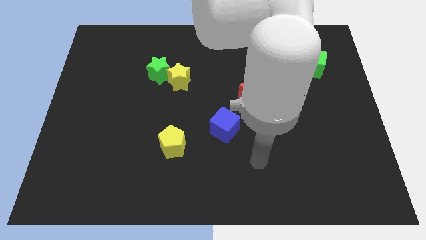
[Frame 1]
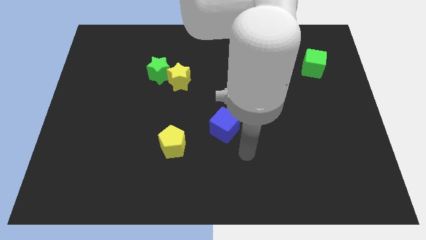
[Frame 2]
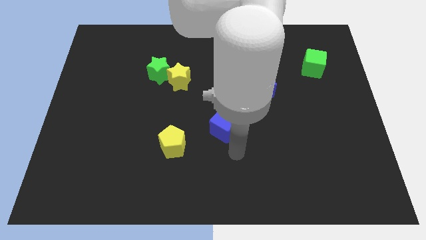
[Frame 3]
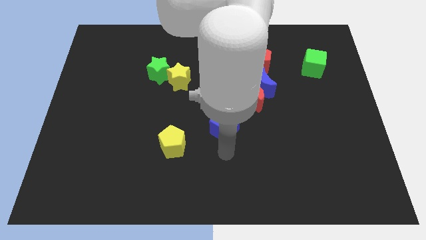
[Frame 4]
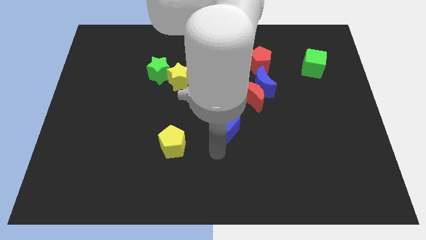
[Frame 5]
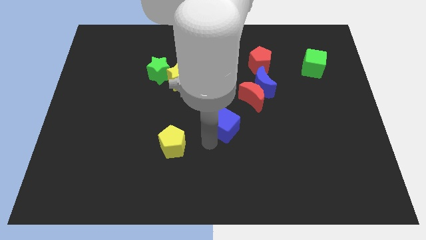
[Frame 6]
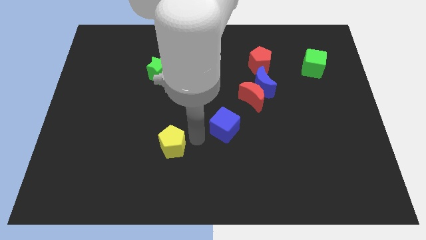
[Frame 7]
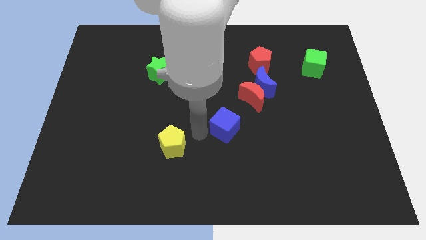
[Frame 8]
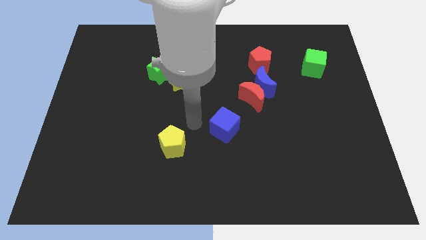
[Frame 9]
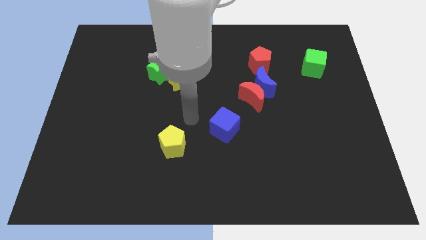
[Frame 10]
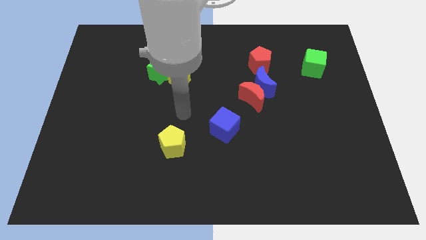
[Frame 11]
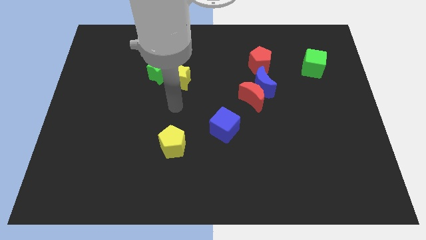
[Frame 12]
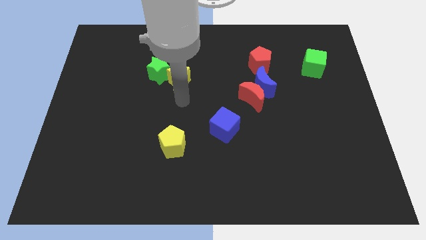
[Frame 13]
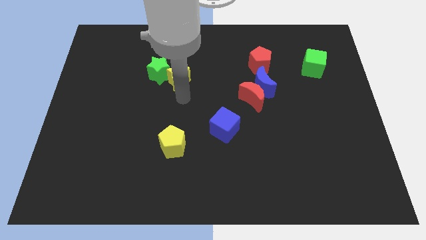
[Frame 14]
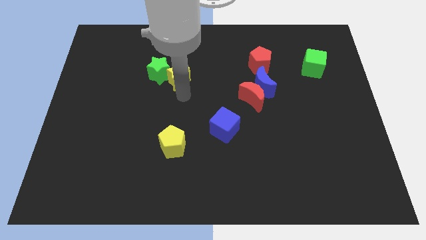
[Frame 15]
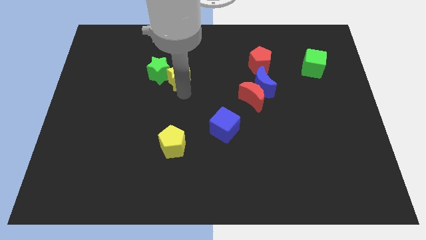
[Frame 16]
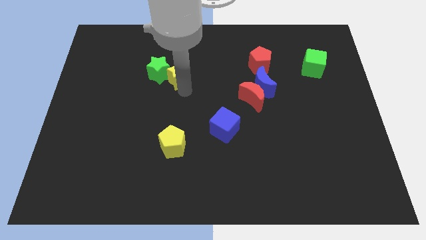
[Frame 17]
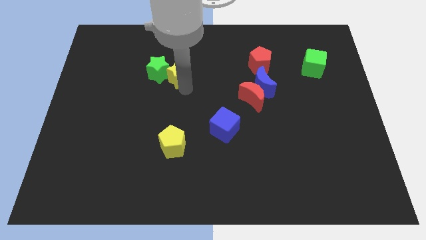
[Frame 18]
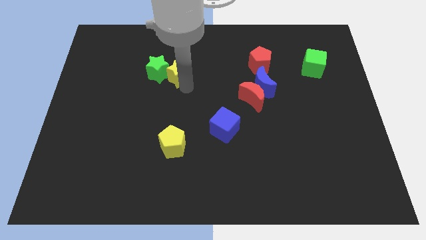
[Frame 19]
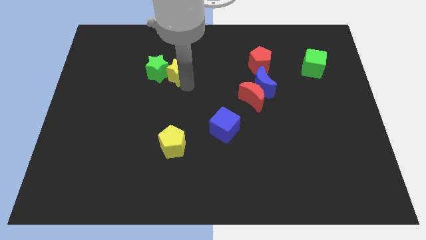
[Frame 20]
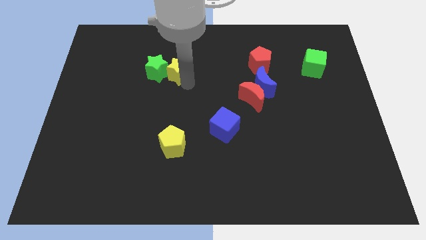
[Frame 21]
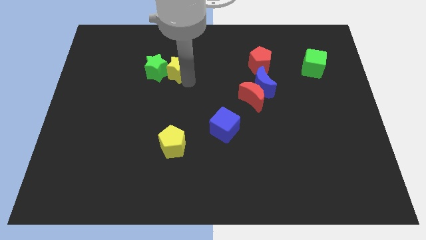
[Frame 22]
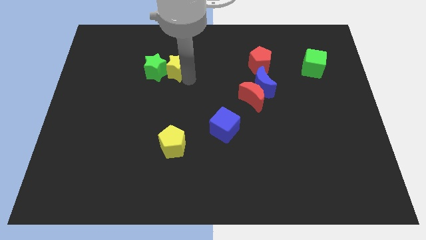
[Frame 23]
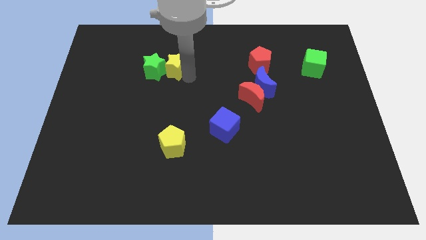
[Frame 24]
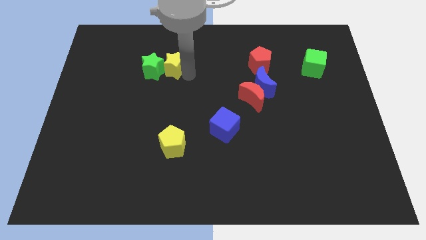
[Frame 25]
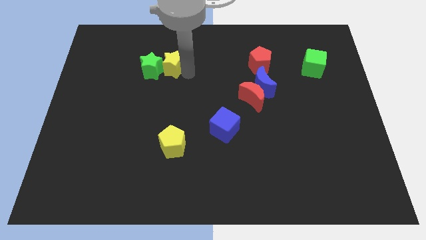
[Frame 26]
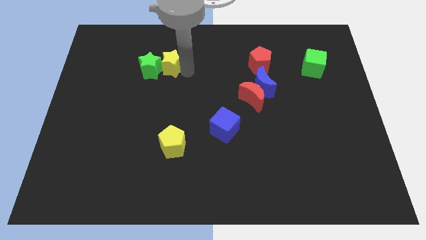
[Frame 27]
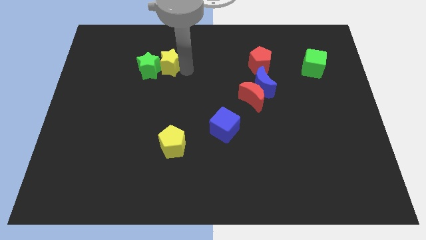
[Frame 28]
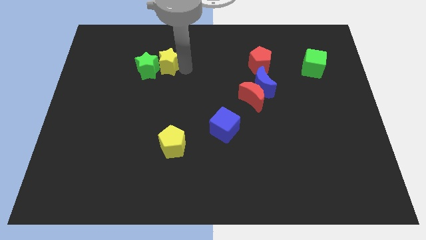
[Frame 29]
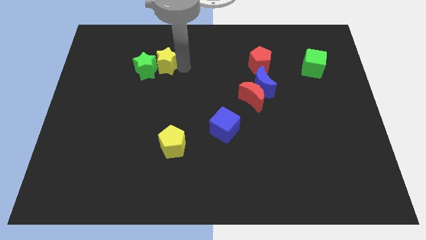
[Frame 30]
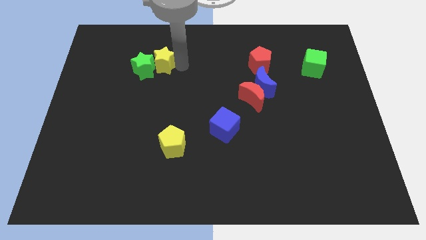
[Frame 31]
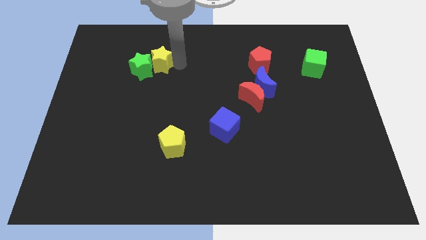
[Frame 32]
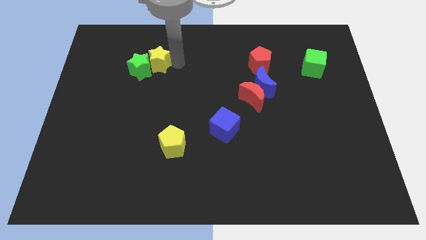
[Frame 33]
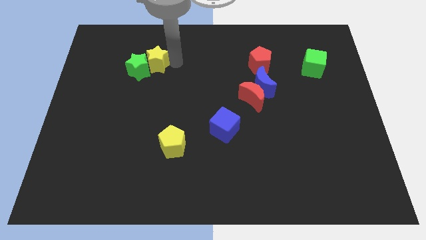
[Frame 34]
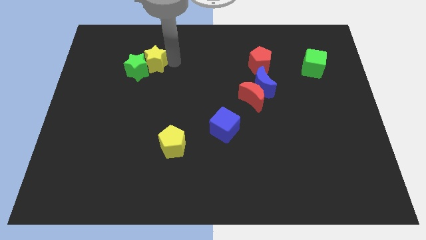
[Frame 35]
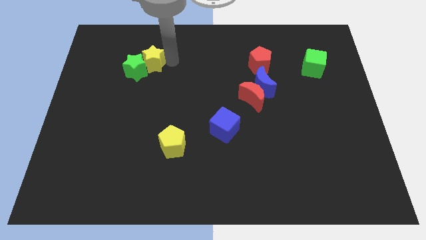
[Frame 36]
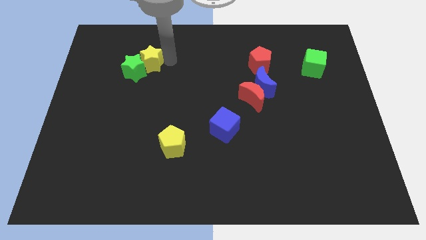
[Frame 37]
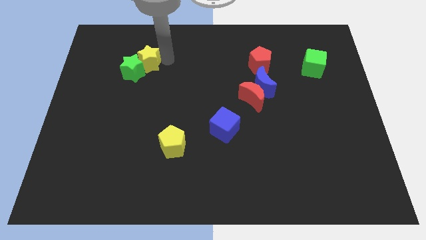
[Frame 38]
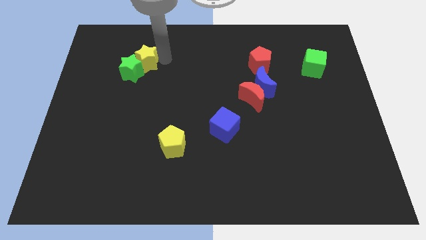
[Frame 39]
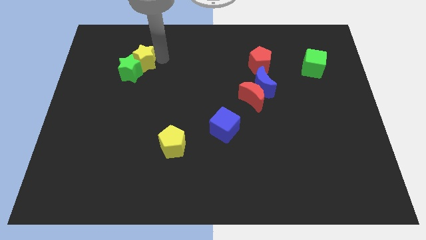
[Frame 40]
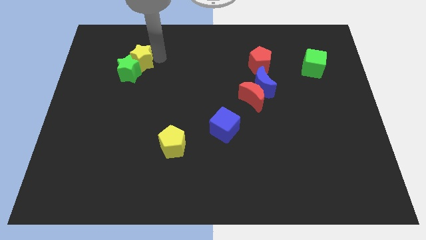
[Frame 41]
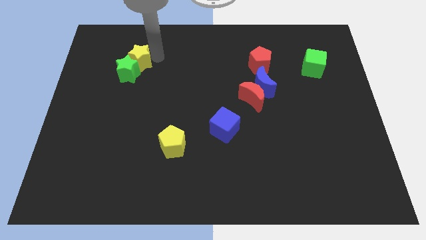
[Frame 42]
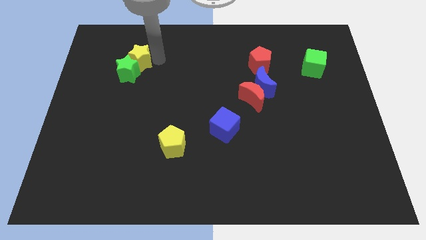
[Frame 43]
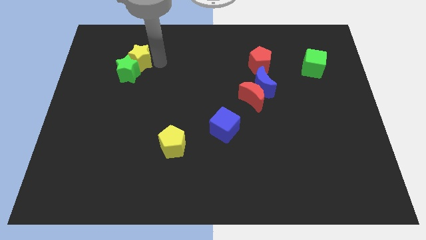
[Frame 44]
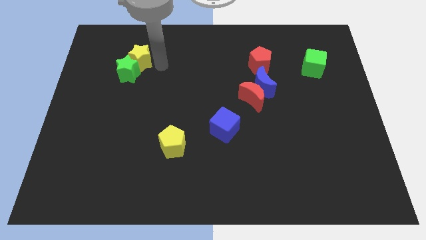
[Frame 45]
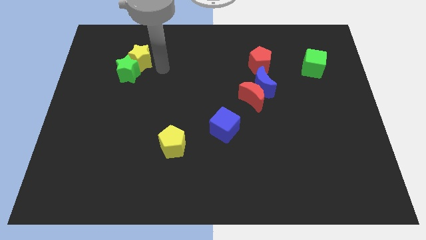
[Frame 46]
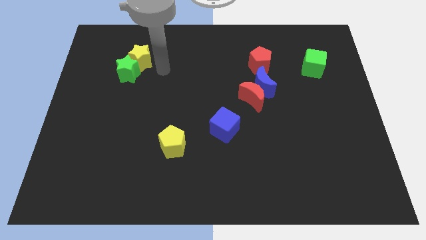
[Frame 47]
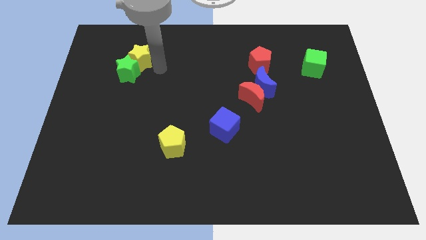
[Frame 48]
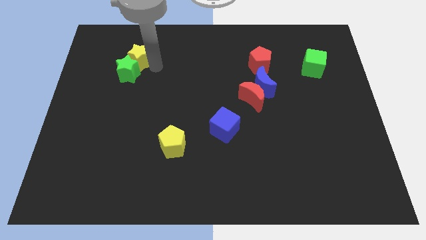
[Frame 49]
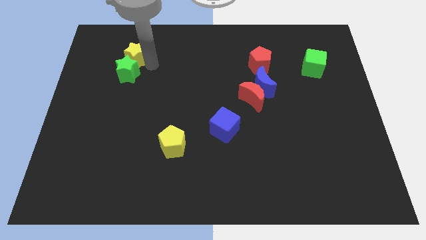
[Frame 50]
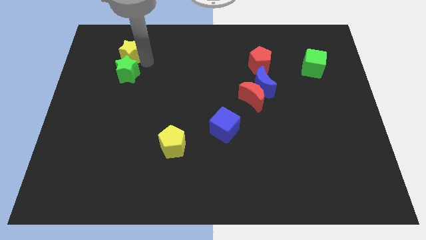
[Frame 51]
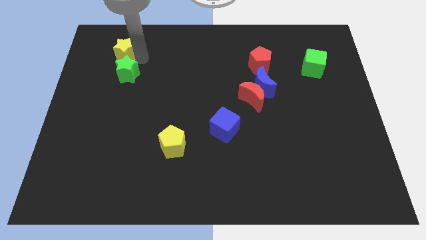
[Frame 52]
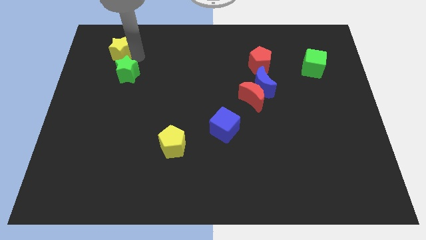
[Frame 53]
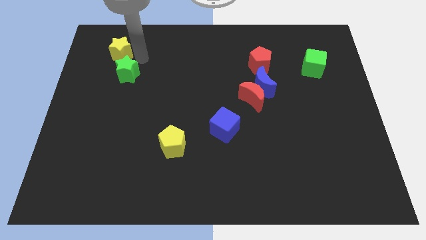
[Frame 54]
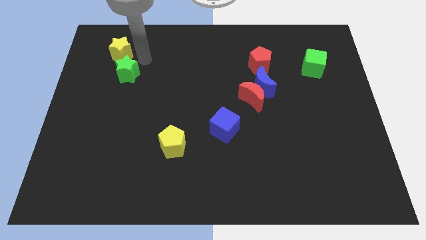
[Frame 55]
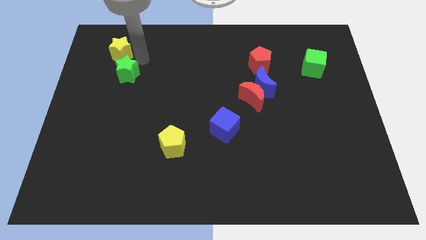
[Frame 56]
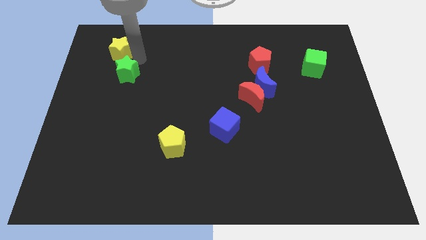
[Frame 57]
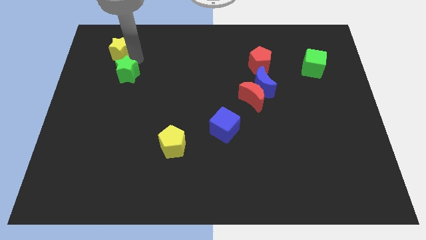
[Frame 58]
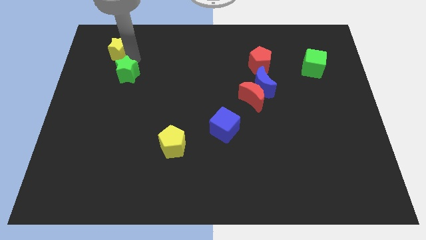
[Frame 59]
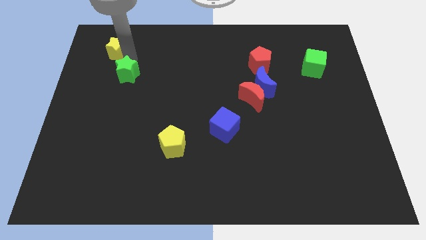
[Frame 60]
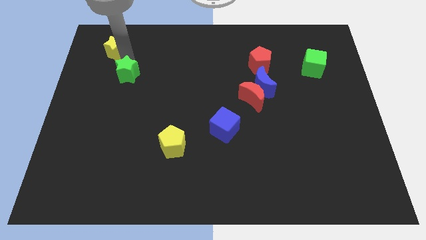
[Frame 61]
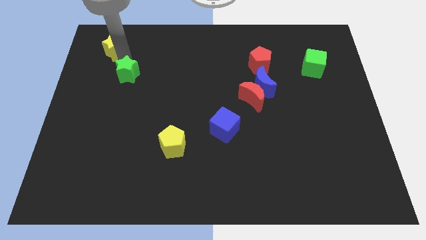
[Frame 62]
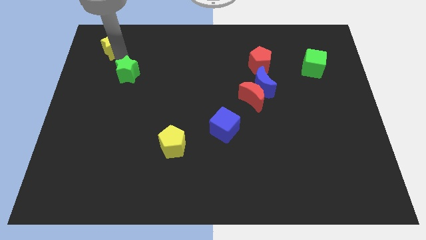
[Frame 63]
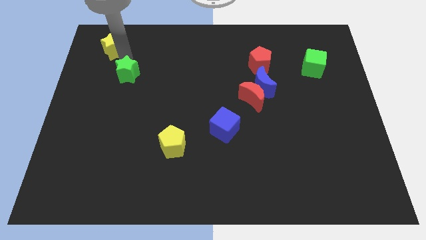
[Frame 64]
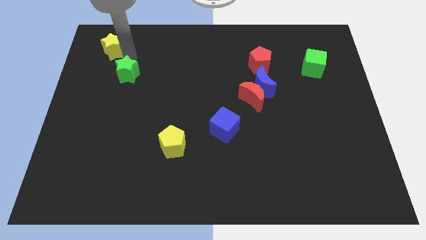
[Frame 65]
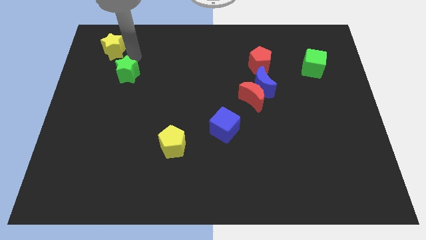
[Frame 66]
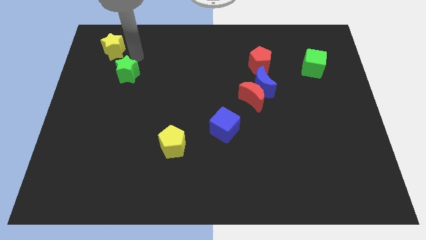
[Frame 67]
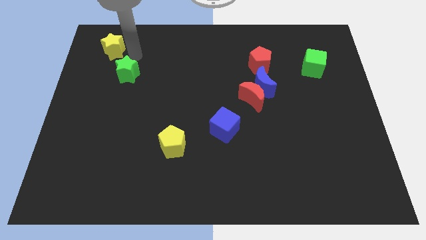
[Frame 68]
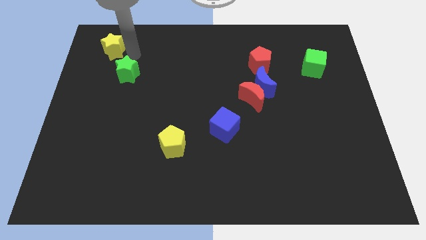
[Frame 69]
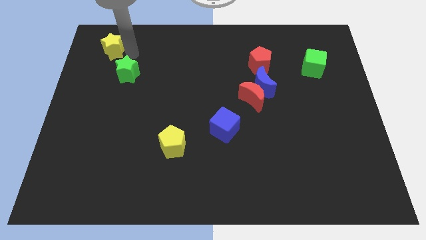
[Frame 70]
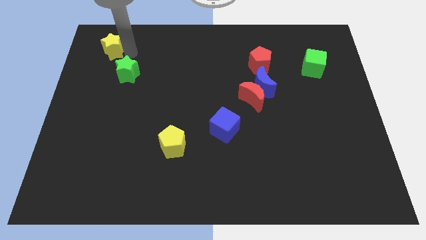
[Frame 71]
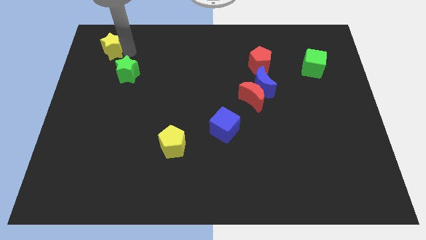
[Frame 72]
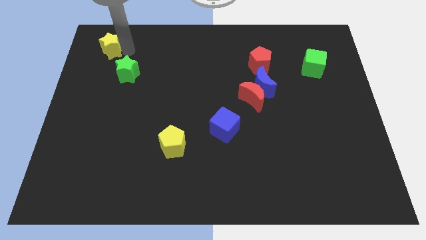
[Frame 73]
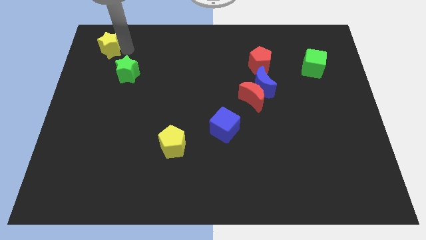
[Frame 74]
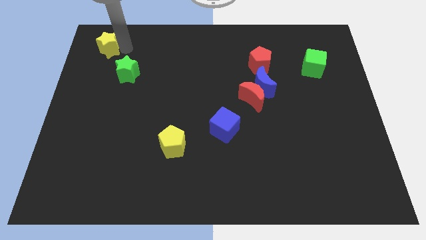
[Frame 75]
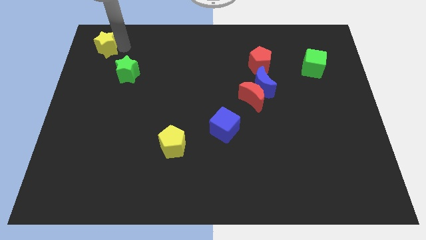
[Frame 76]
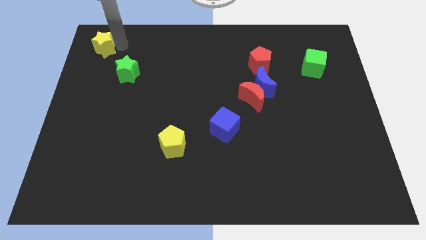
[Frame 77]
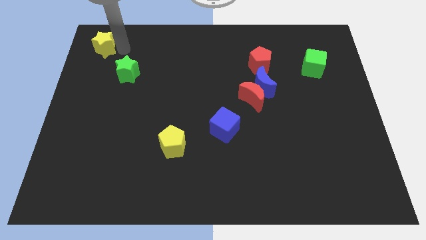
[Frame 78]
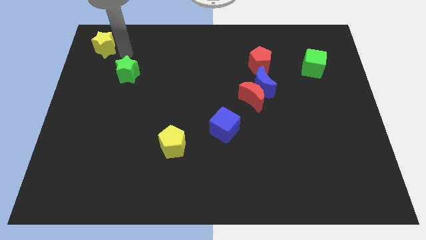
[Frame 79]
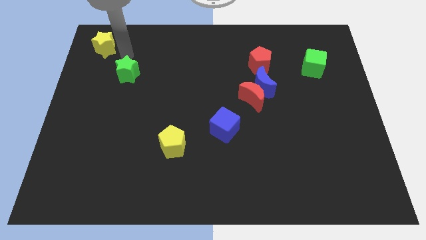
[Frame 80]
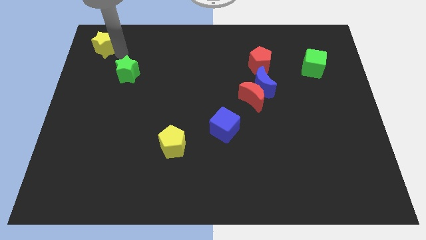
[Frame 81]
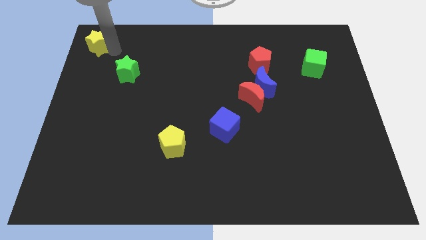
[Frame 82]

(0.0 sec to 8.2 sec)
move the yellow star to the top left corner
